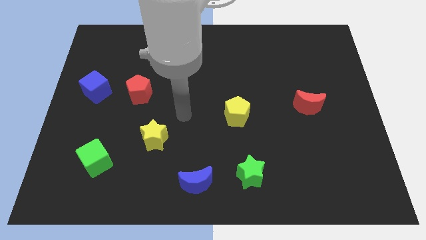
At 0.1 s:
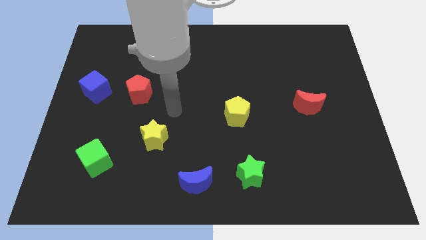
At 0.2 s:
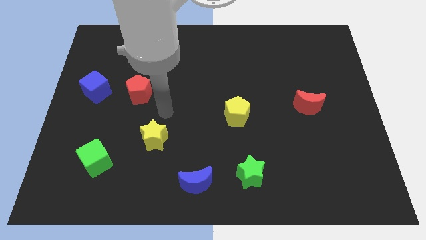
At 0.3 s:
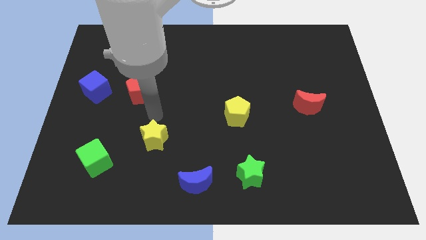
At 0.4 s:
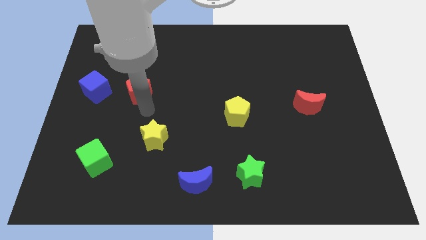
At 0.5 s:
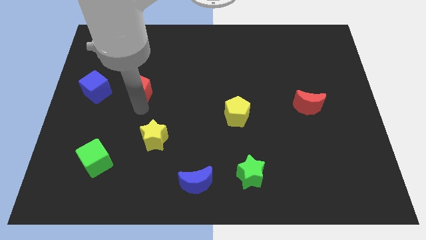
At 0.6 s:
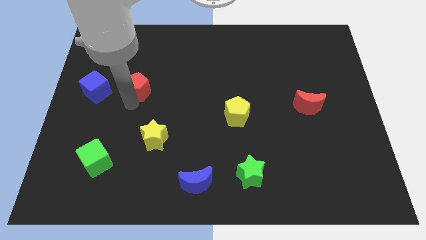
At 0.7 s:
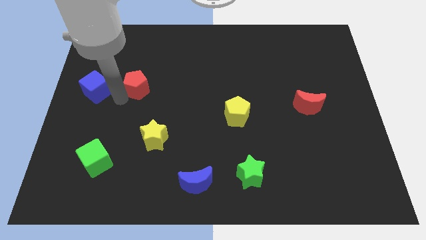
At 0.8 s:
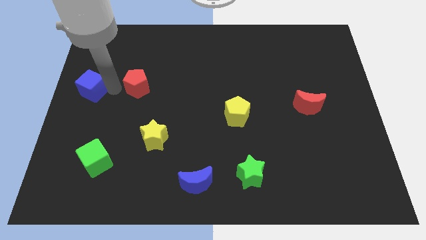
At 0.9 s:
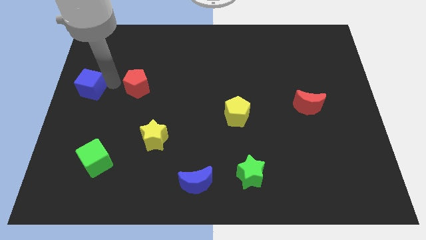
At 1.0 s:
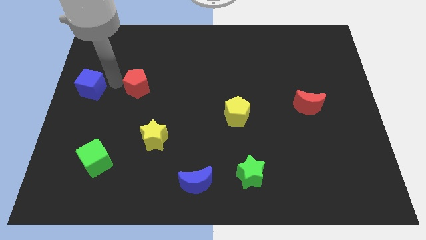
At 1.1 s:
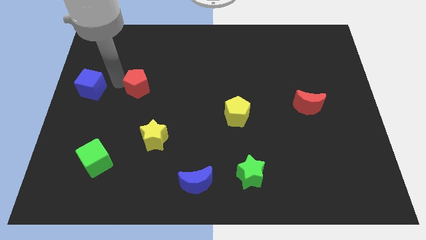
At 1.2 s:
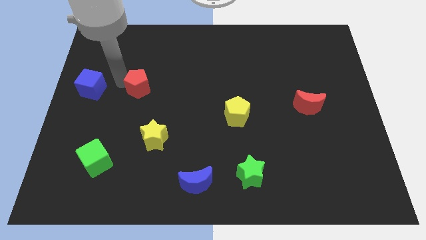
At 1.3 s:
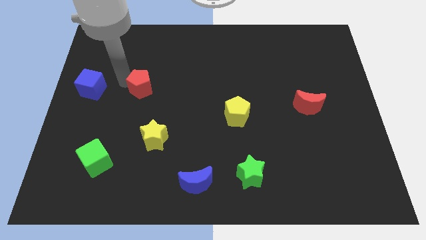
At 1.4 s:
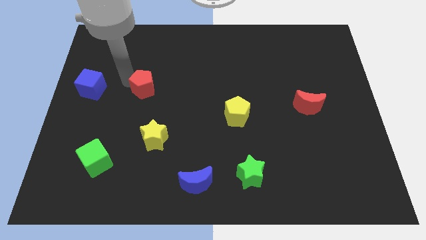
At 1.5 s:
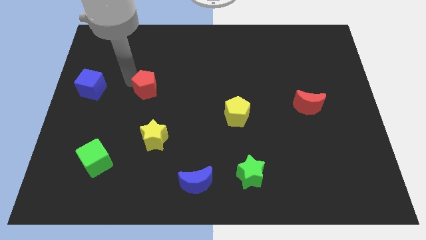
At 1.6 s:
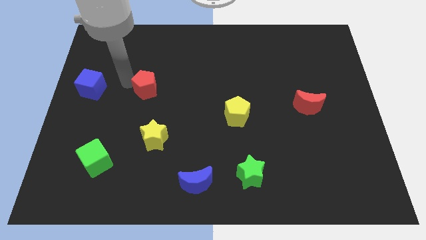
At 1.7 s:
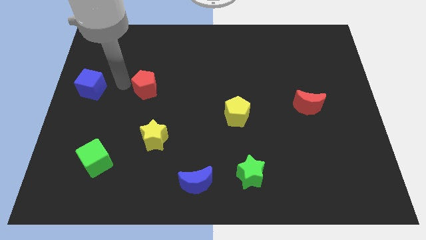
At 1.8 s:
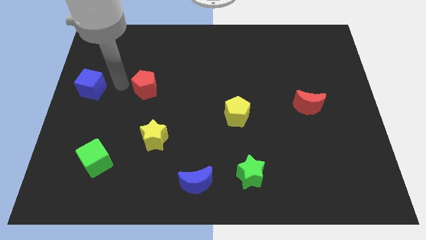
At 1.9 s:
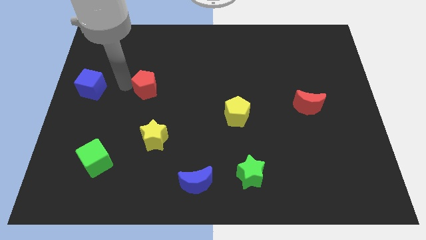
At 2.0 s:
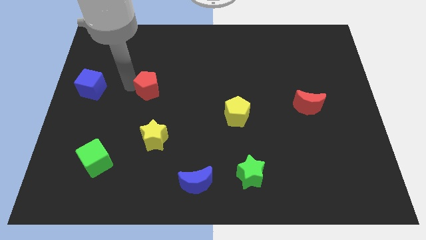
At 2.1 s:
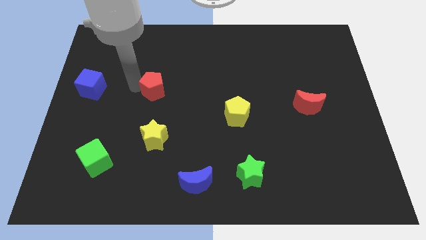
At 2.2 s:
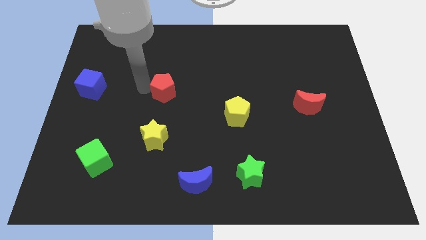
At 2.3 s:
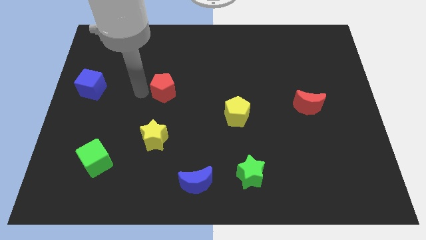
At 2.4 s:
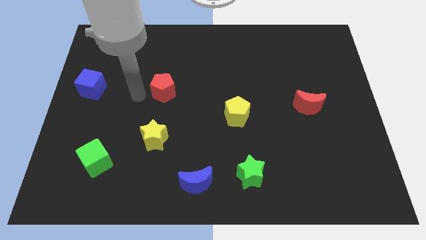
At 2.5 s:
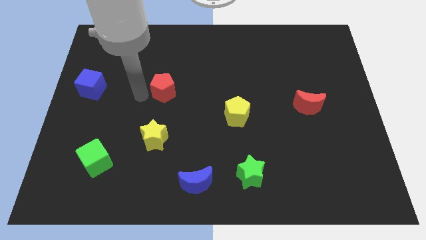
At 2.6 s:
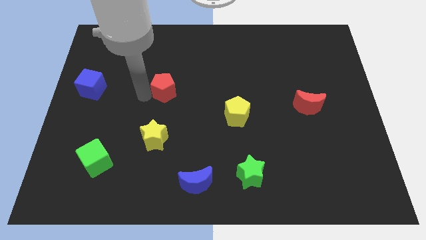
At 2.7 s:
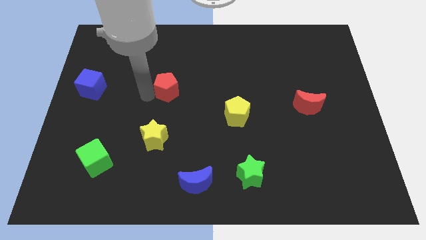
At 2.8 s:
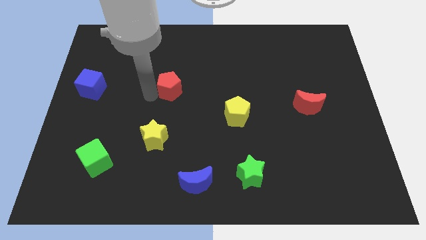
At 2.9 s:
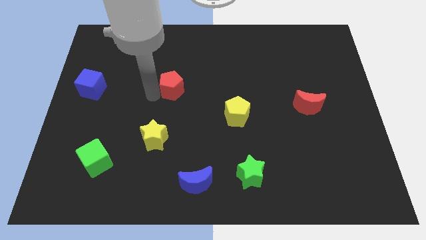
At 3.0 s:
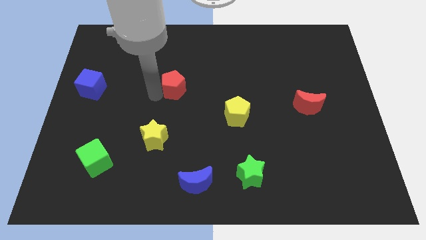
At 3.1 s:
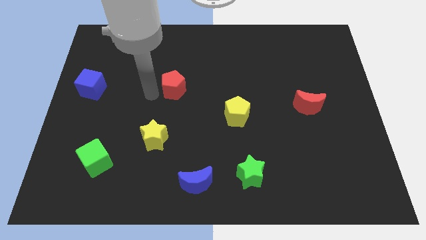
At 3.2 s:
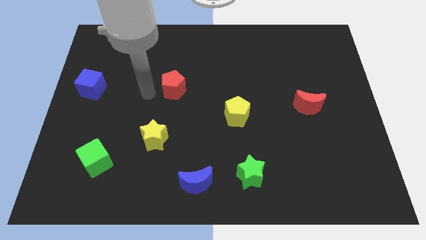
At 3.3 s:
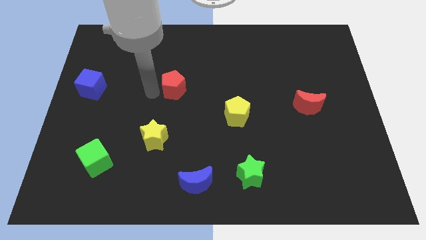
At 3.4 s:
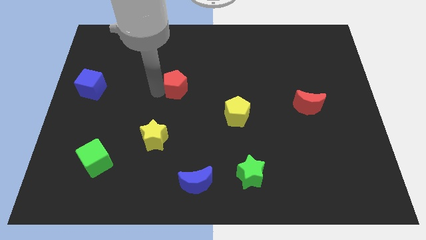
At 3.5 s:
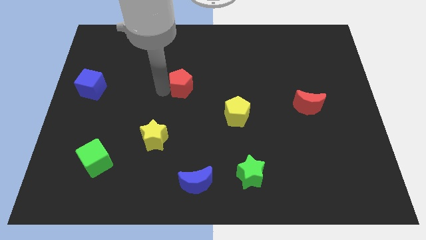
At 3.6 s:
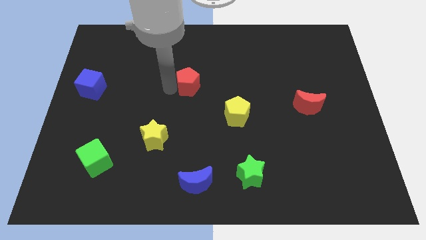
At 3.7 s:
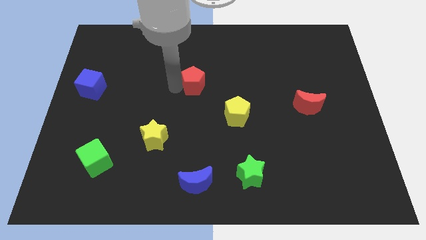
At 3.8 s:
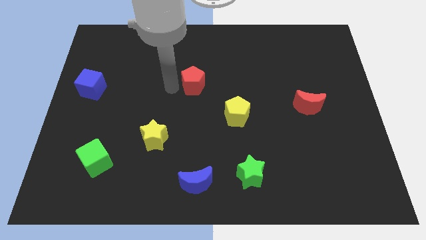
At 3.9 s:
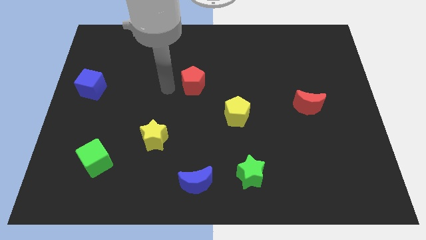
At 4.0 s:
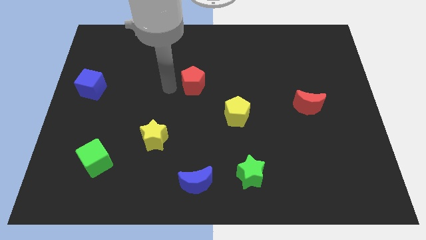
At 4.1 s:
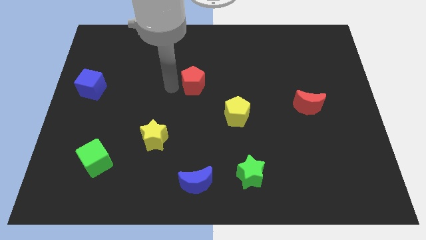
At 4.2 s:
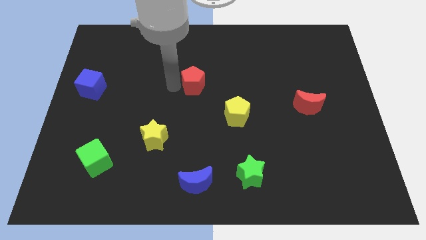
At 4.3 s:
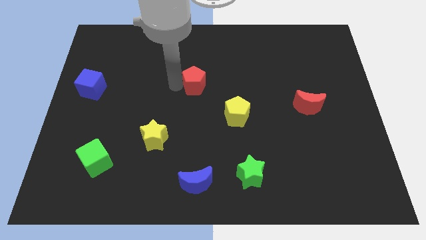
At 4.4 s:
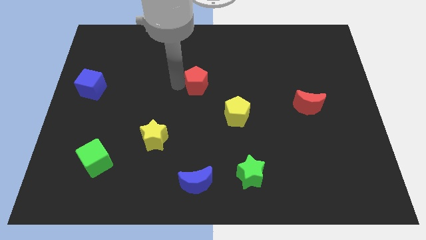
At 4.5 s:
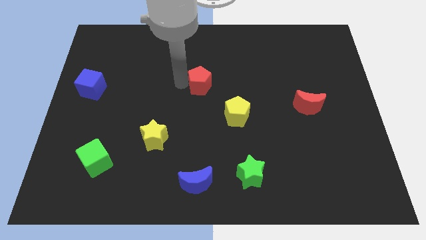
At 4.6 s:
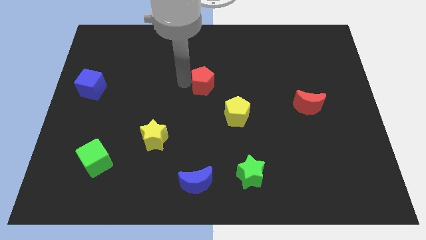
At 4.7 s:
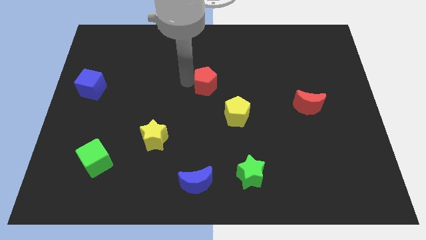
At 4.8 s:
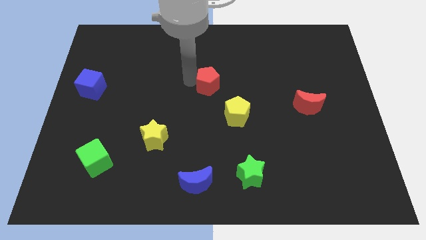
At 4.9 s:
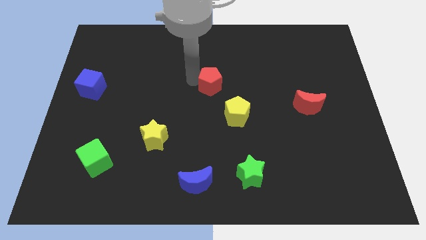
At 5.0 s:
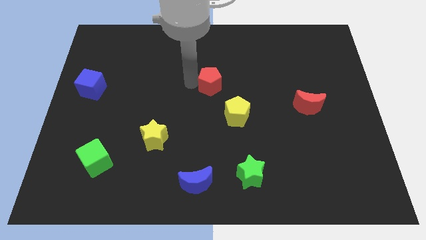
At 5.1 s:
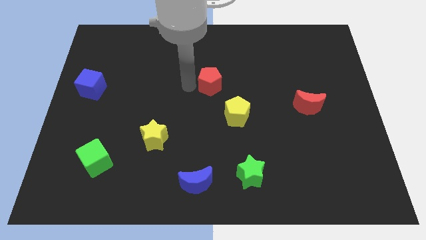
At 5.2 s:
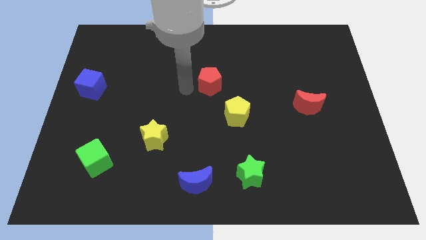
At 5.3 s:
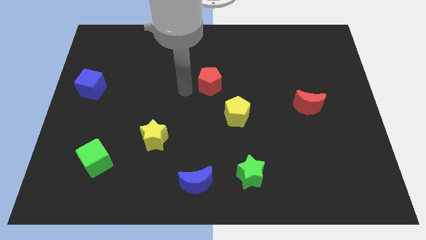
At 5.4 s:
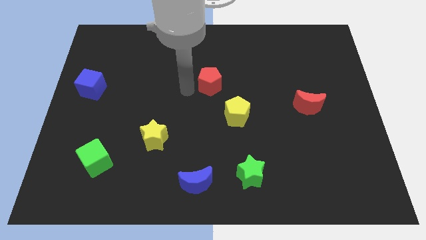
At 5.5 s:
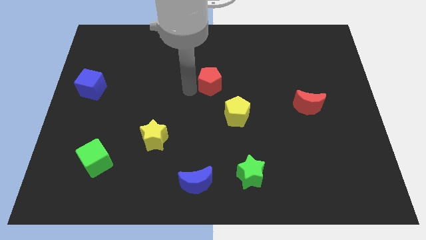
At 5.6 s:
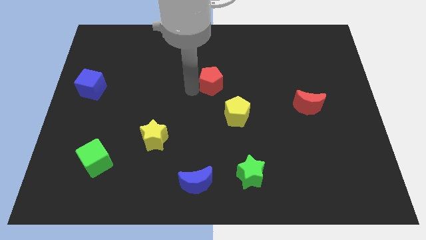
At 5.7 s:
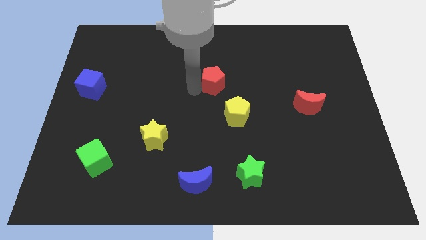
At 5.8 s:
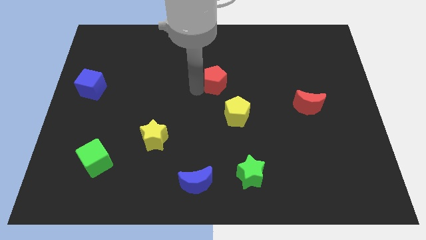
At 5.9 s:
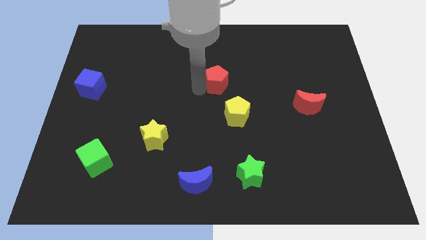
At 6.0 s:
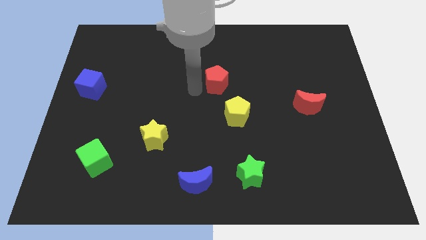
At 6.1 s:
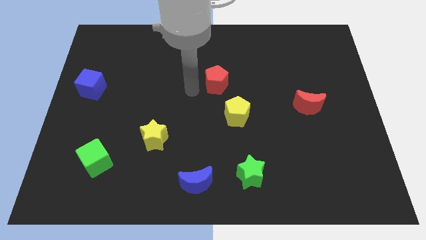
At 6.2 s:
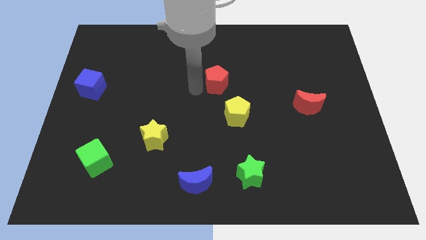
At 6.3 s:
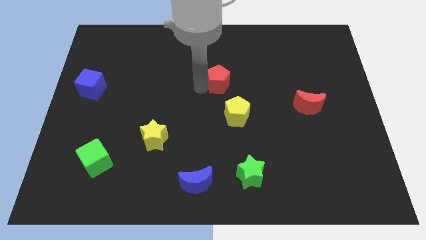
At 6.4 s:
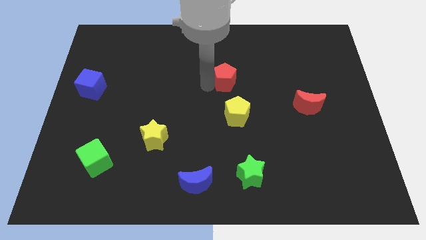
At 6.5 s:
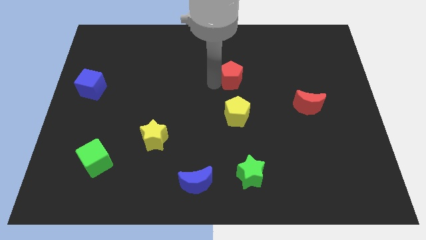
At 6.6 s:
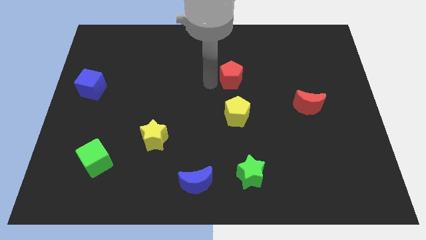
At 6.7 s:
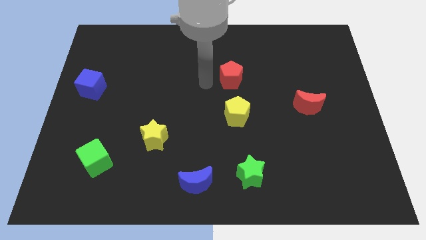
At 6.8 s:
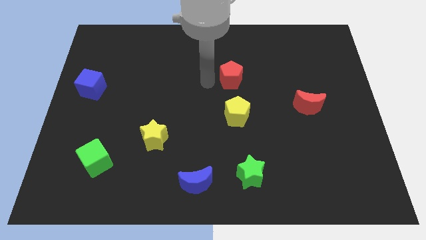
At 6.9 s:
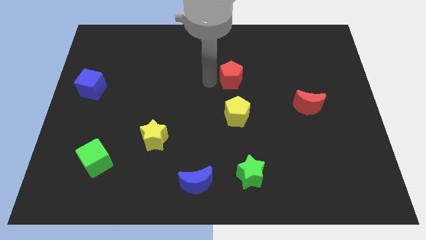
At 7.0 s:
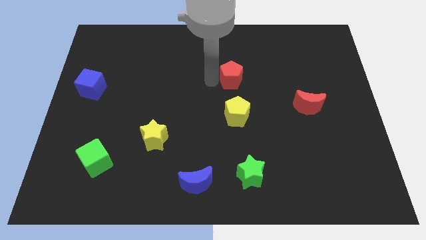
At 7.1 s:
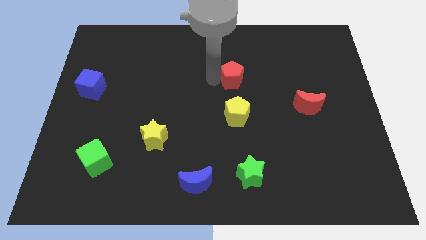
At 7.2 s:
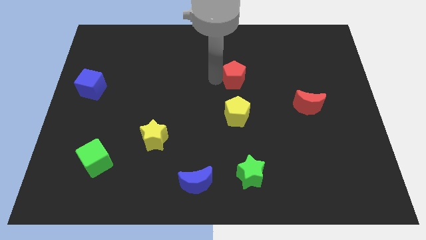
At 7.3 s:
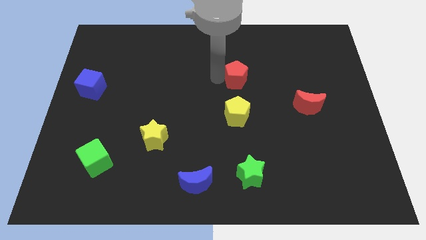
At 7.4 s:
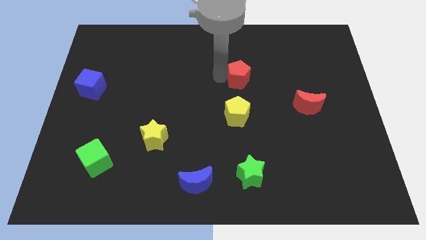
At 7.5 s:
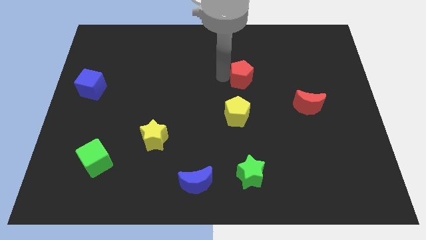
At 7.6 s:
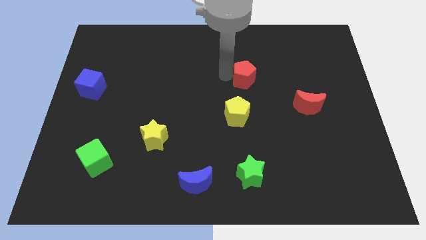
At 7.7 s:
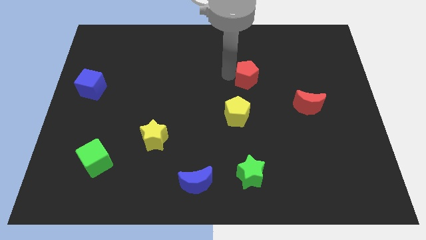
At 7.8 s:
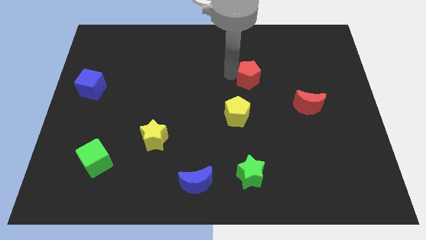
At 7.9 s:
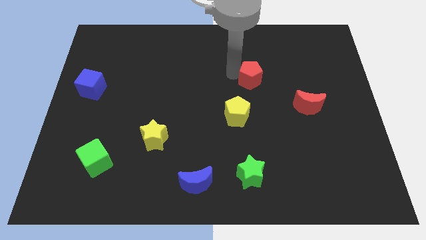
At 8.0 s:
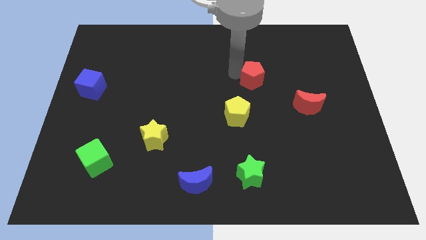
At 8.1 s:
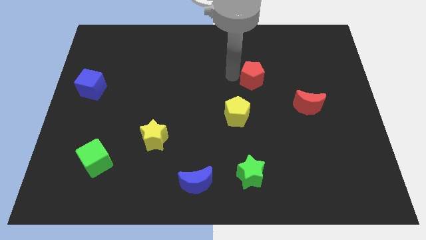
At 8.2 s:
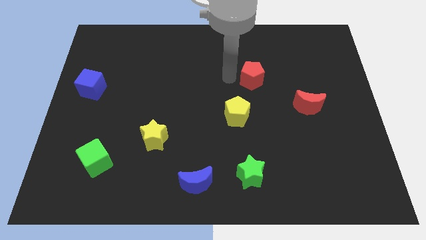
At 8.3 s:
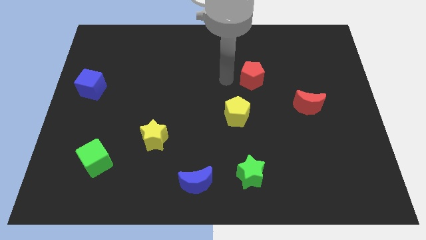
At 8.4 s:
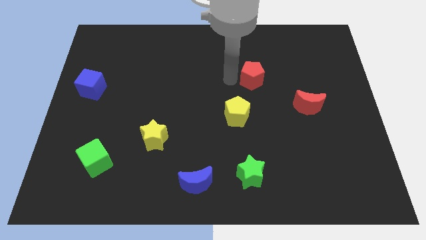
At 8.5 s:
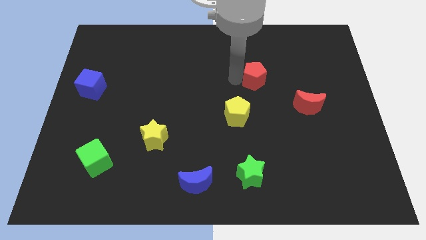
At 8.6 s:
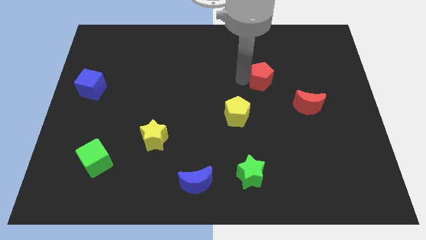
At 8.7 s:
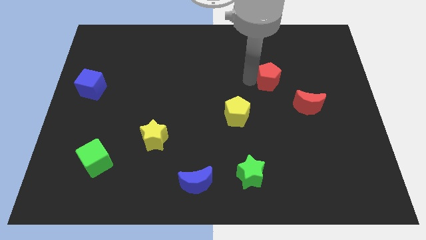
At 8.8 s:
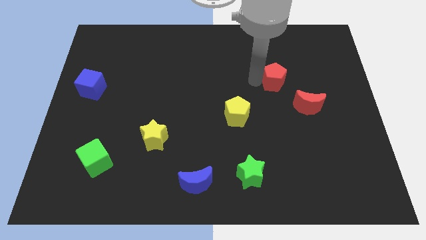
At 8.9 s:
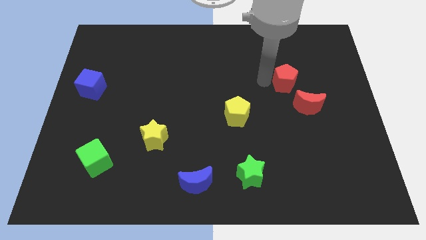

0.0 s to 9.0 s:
push the red pentagon to the top of the red moon
